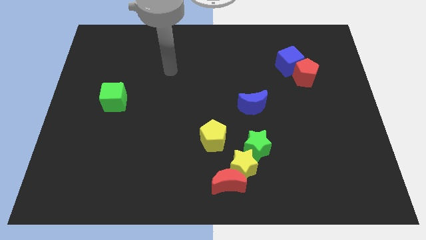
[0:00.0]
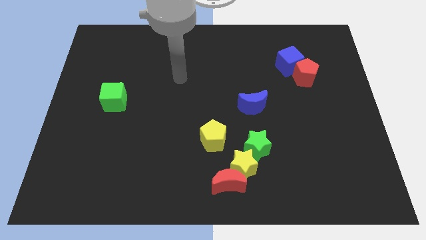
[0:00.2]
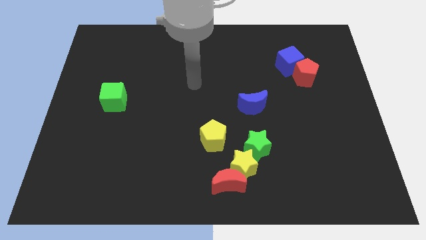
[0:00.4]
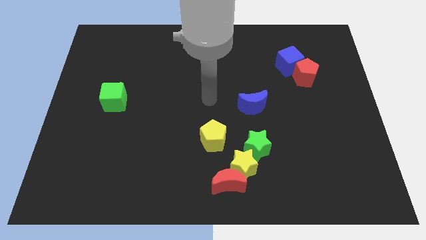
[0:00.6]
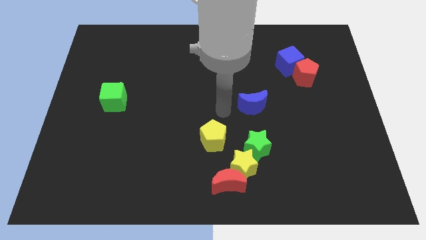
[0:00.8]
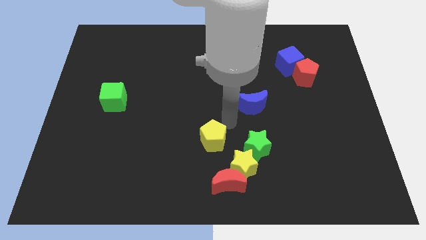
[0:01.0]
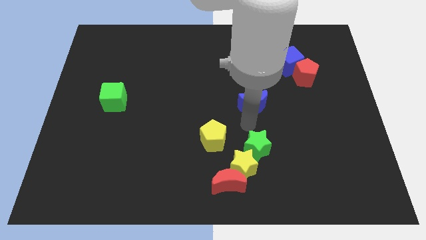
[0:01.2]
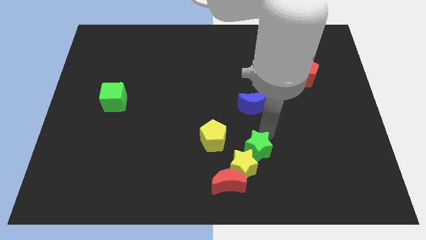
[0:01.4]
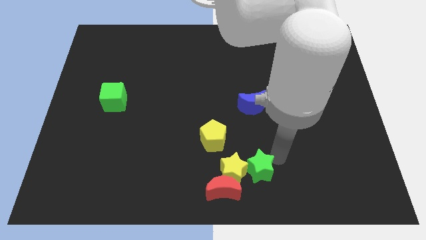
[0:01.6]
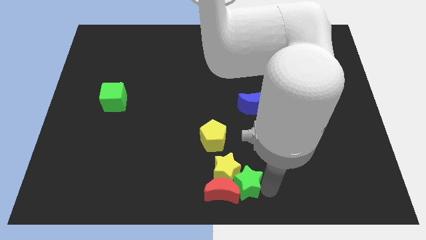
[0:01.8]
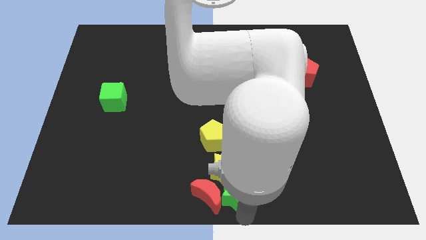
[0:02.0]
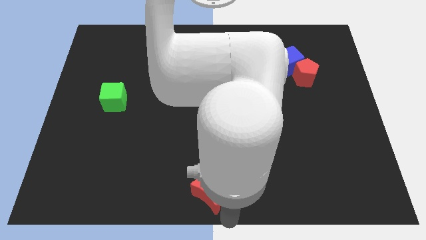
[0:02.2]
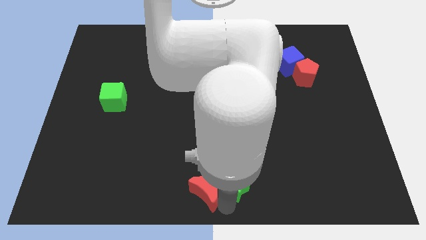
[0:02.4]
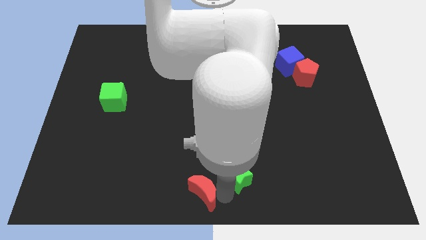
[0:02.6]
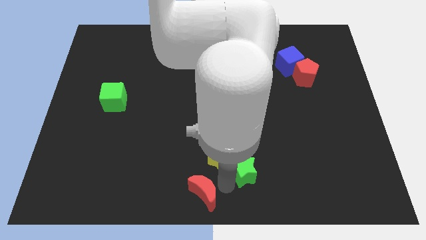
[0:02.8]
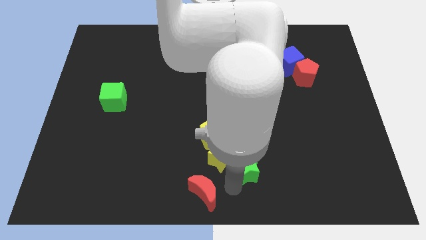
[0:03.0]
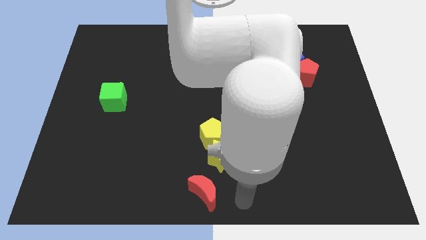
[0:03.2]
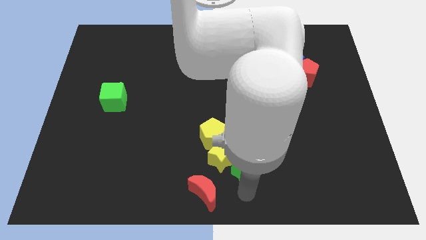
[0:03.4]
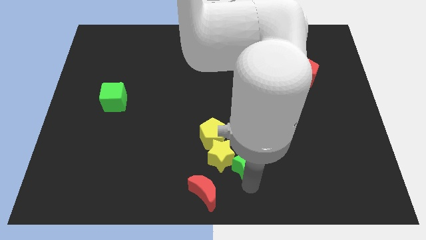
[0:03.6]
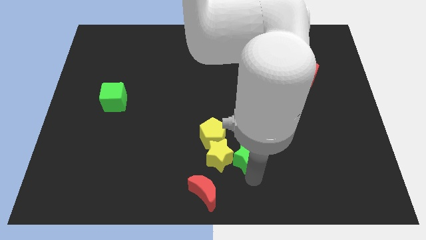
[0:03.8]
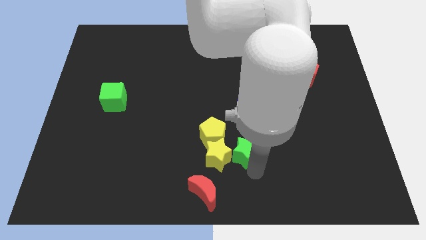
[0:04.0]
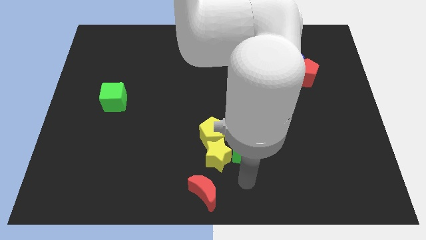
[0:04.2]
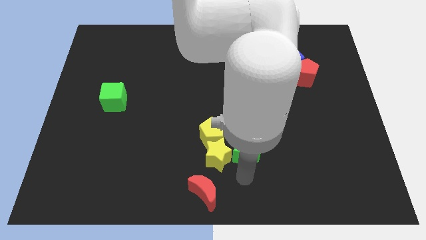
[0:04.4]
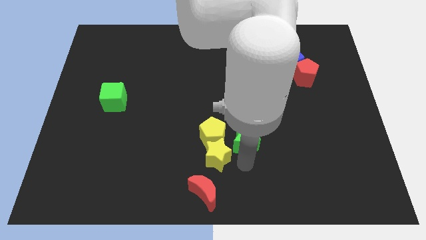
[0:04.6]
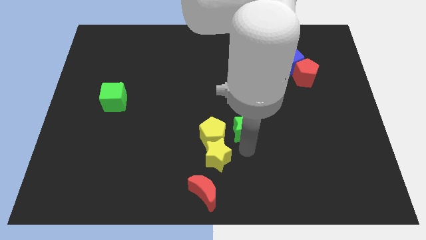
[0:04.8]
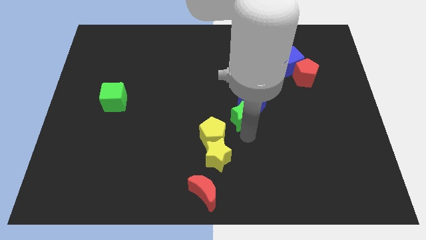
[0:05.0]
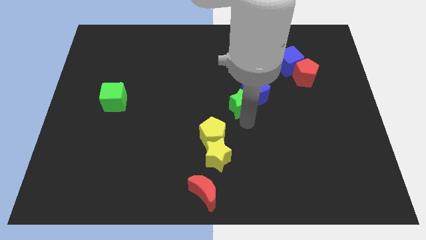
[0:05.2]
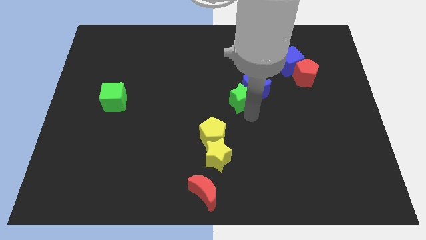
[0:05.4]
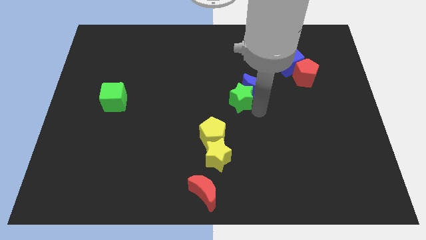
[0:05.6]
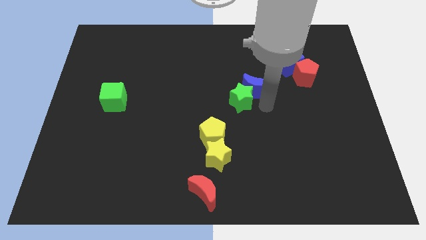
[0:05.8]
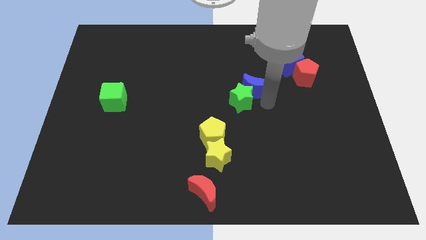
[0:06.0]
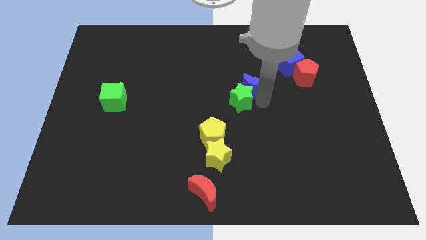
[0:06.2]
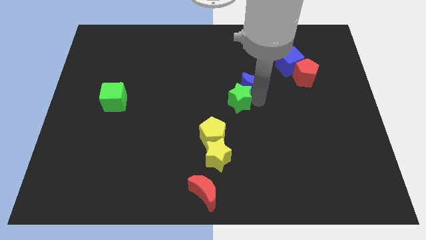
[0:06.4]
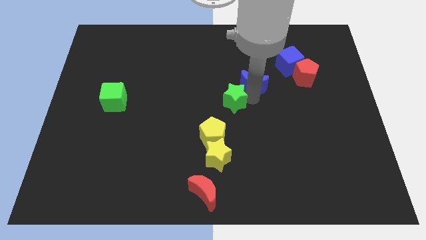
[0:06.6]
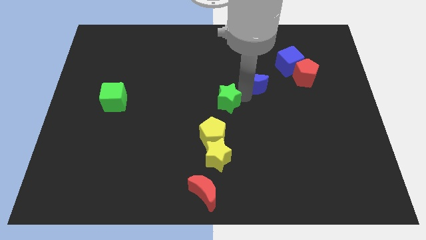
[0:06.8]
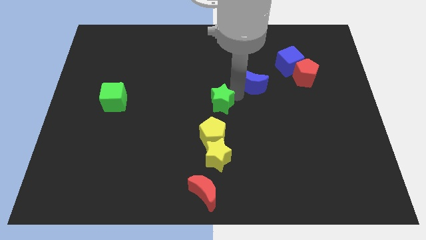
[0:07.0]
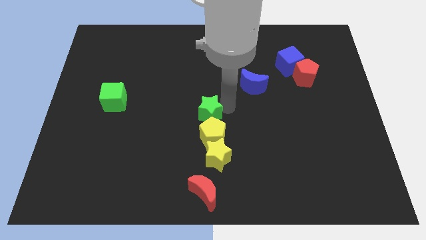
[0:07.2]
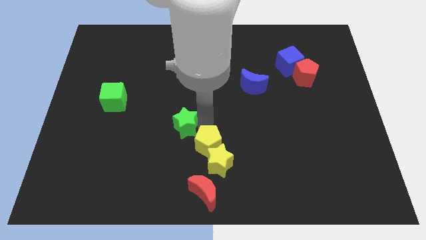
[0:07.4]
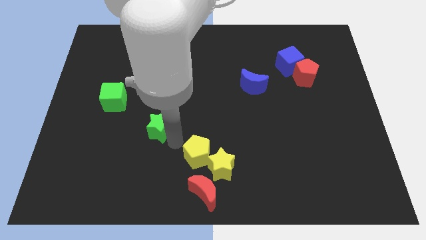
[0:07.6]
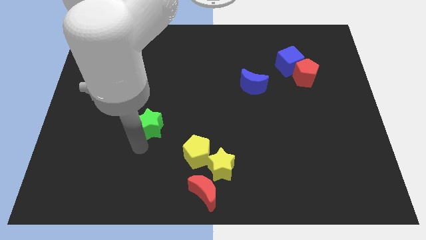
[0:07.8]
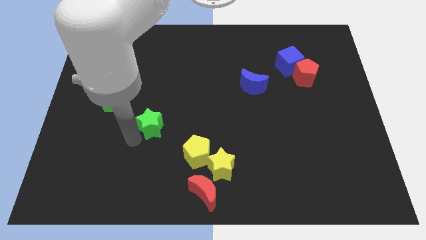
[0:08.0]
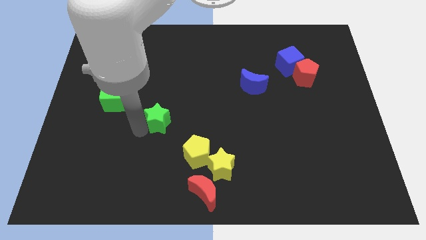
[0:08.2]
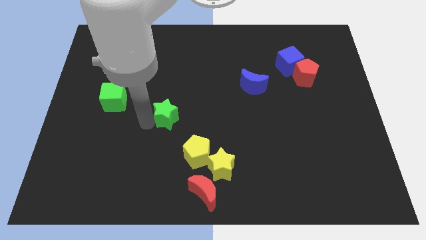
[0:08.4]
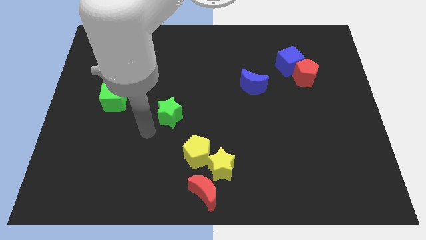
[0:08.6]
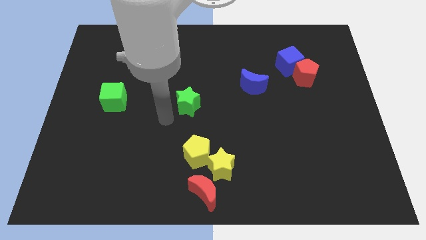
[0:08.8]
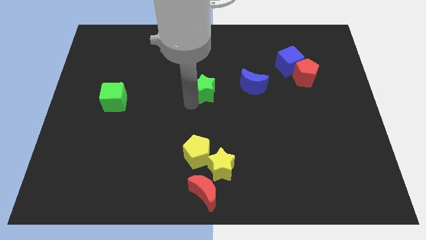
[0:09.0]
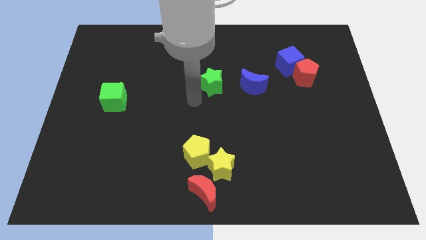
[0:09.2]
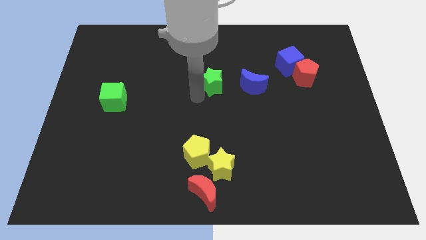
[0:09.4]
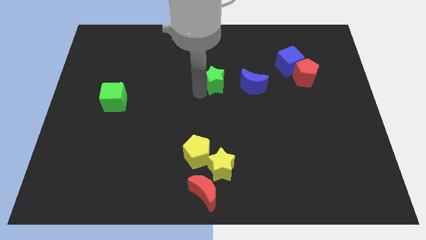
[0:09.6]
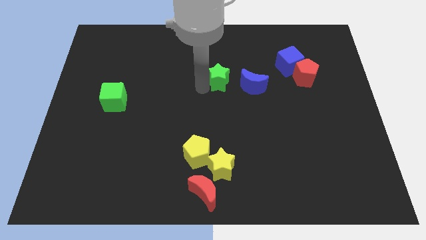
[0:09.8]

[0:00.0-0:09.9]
slide the green star to the top left side of the blue moon

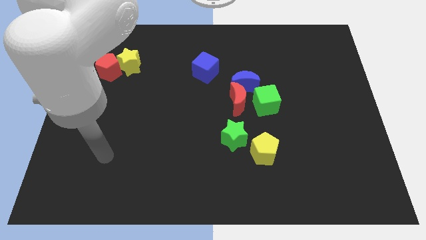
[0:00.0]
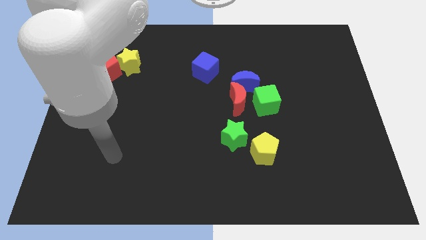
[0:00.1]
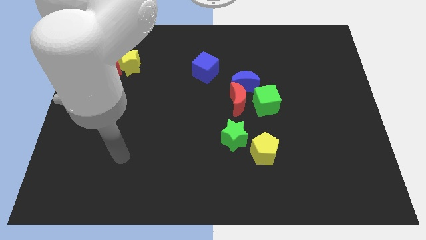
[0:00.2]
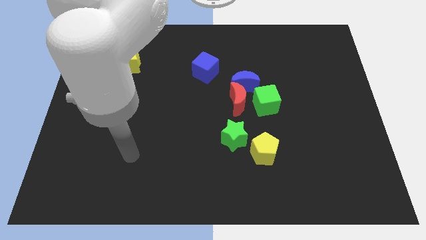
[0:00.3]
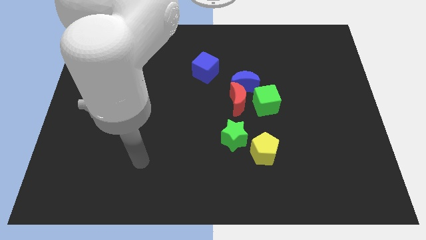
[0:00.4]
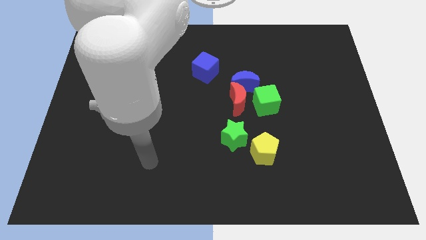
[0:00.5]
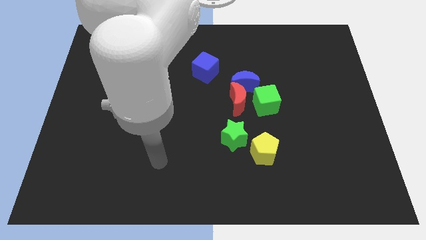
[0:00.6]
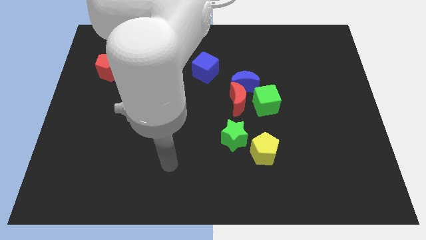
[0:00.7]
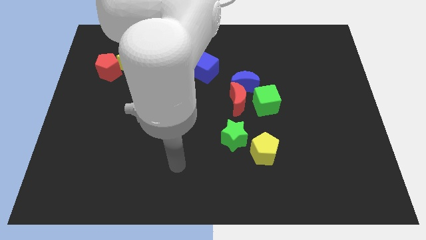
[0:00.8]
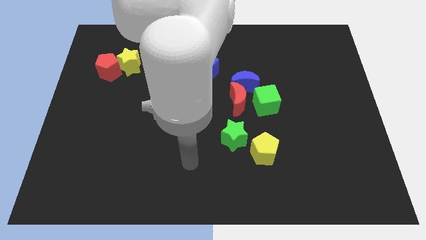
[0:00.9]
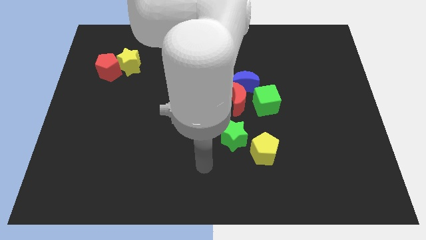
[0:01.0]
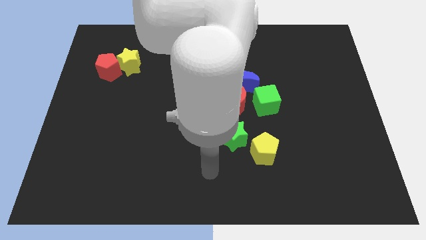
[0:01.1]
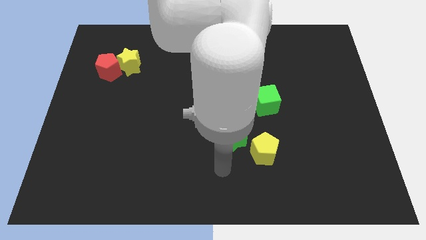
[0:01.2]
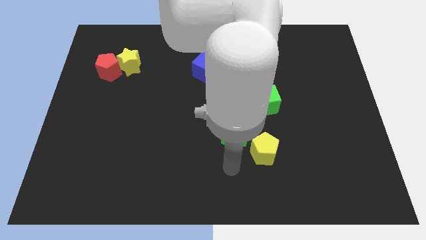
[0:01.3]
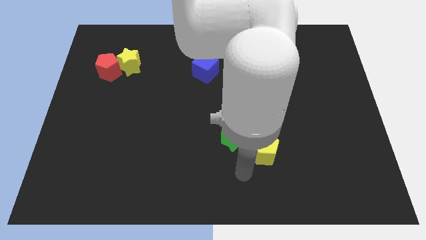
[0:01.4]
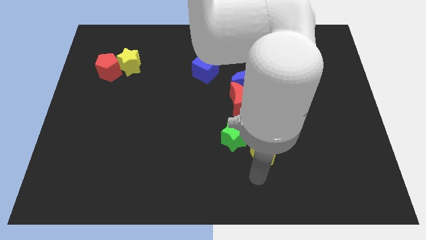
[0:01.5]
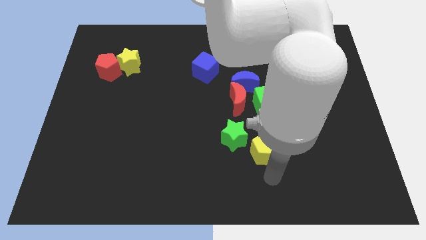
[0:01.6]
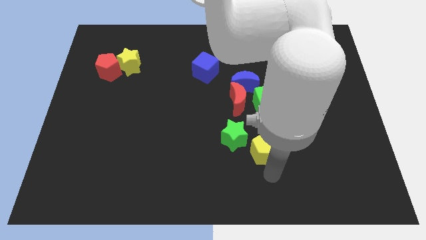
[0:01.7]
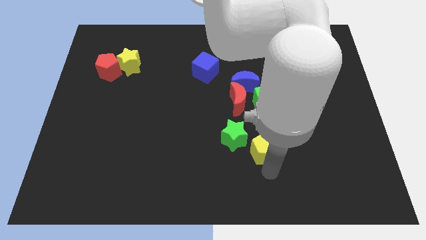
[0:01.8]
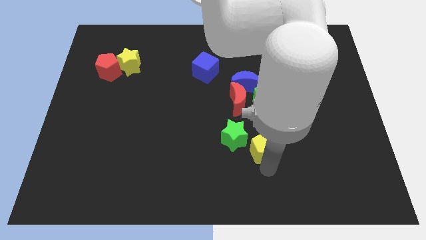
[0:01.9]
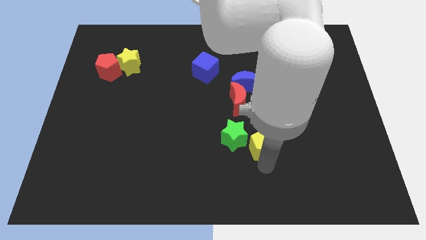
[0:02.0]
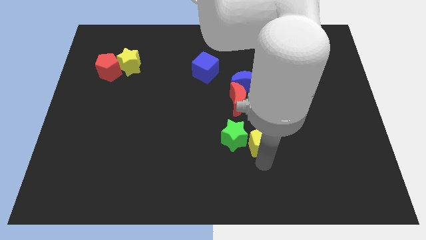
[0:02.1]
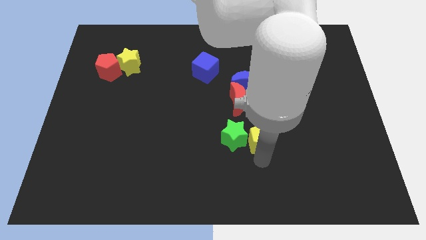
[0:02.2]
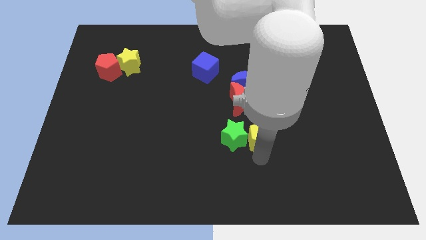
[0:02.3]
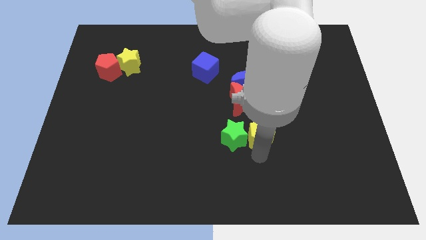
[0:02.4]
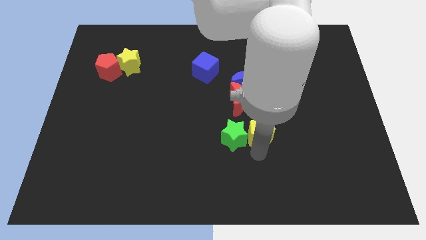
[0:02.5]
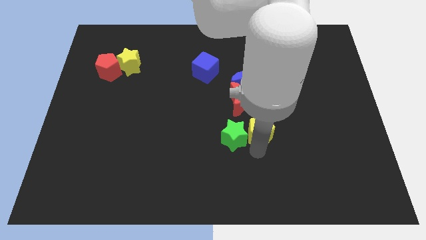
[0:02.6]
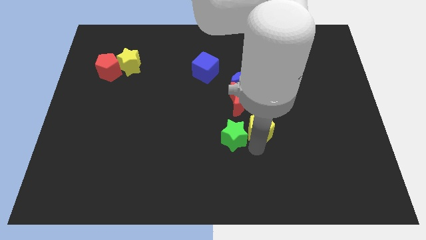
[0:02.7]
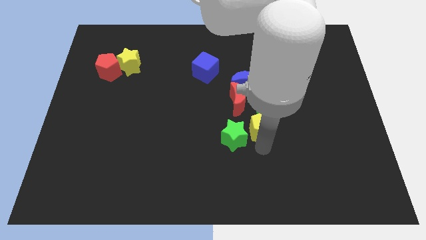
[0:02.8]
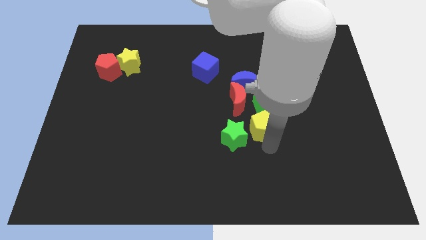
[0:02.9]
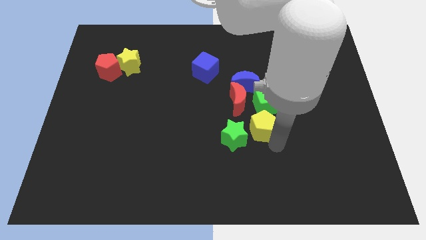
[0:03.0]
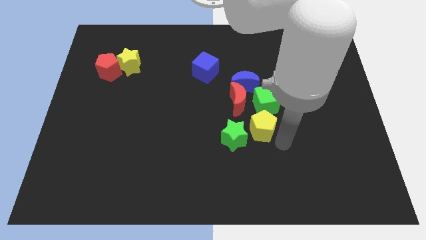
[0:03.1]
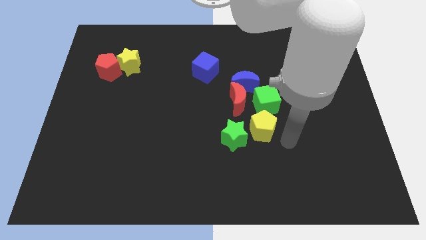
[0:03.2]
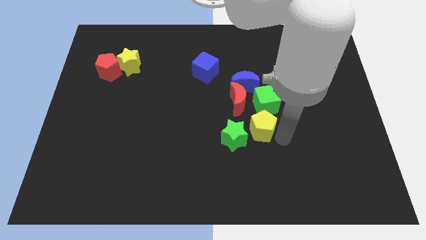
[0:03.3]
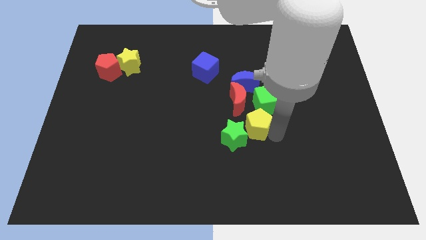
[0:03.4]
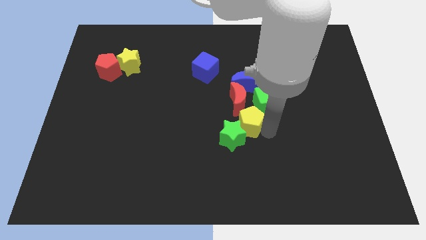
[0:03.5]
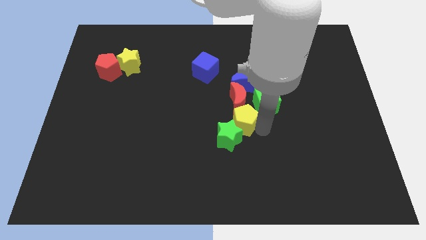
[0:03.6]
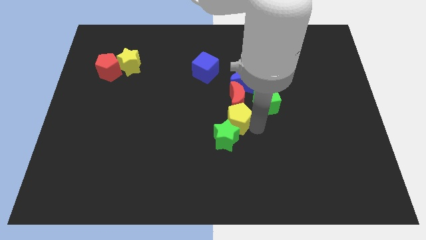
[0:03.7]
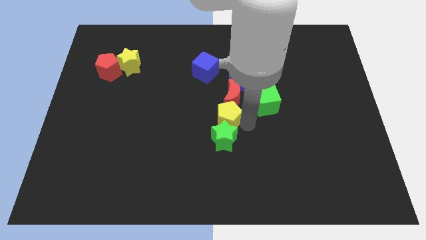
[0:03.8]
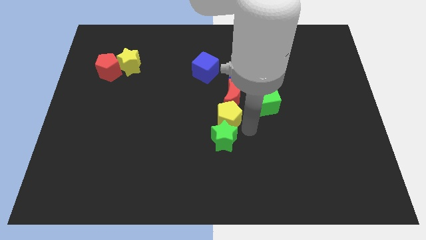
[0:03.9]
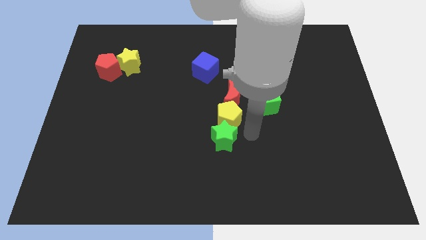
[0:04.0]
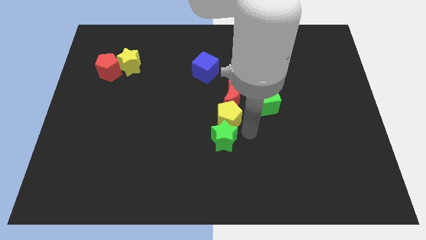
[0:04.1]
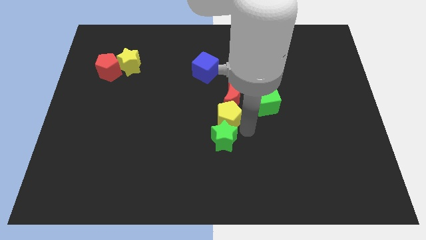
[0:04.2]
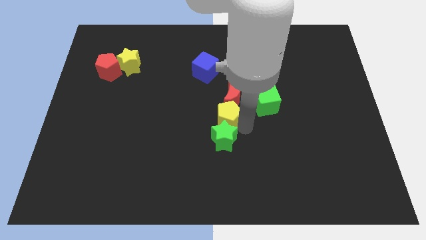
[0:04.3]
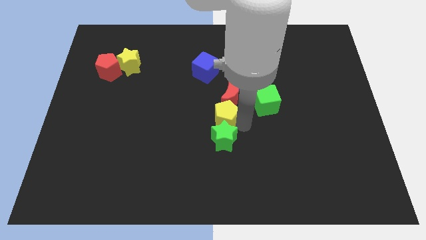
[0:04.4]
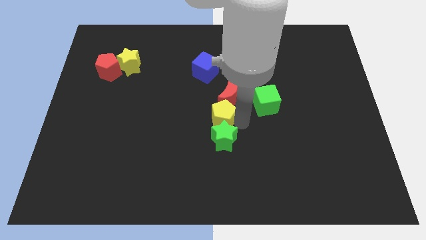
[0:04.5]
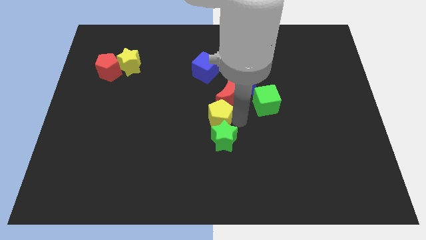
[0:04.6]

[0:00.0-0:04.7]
push the yellow pentagon to the bottom of the blue cube
